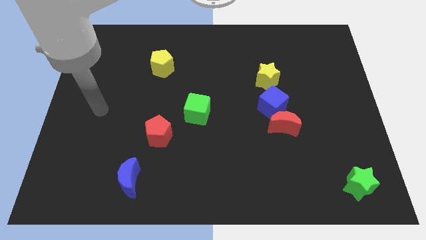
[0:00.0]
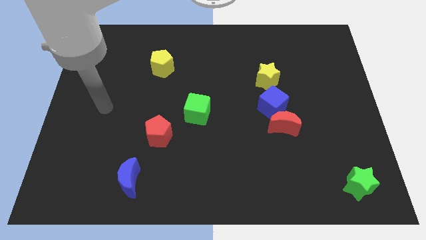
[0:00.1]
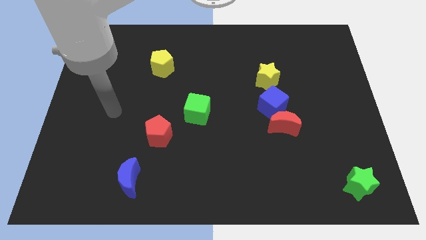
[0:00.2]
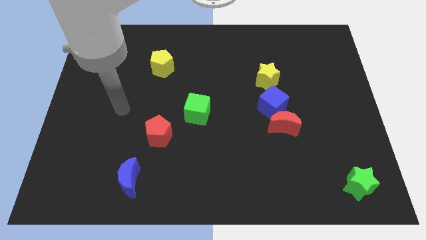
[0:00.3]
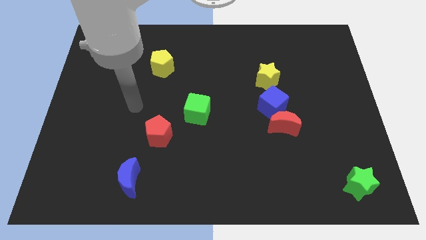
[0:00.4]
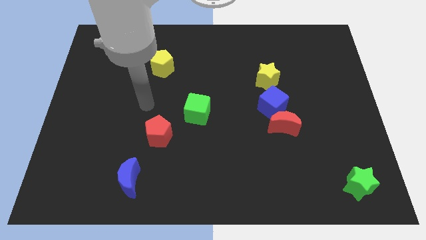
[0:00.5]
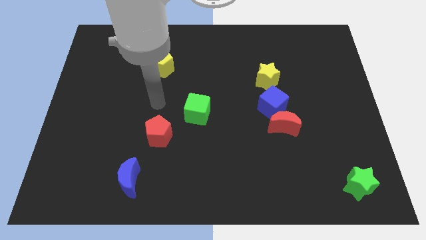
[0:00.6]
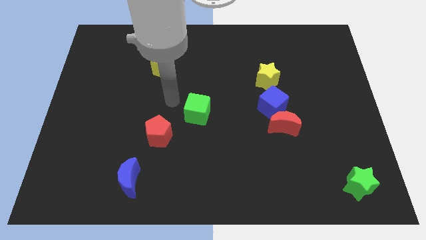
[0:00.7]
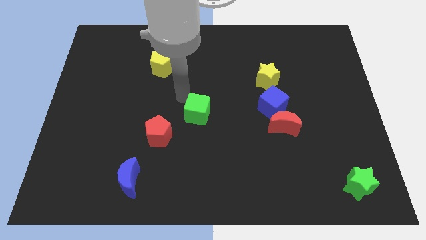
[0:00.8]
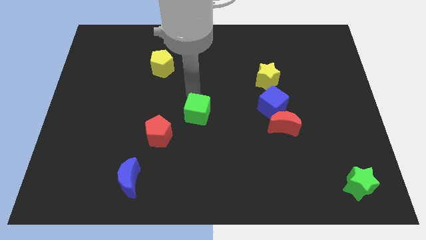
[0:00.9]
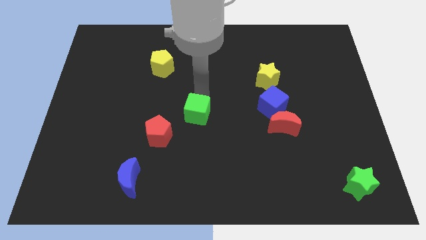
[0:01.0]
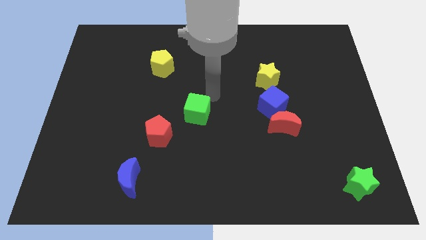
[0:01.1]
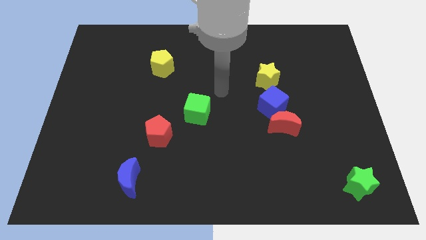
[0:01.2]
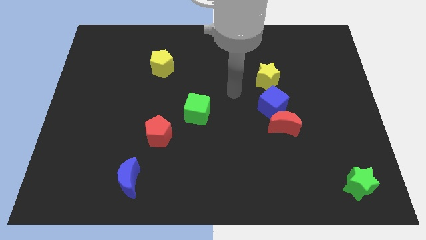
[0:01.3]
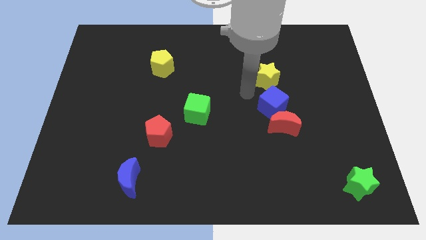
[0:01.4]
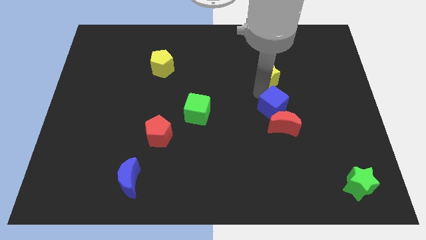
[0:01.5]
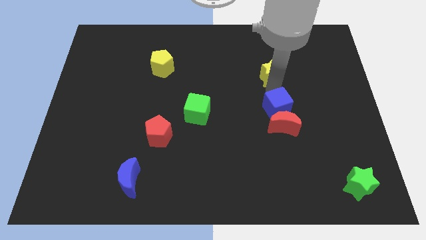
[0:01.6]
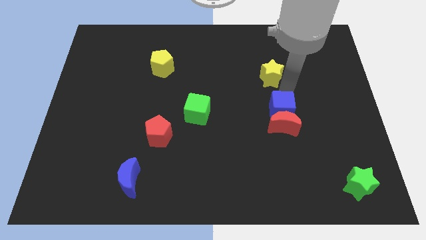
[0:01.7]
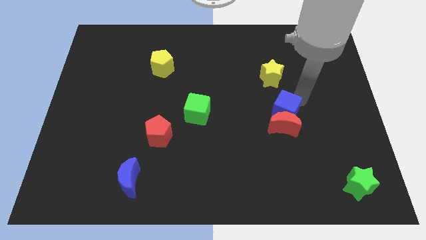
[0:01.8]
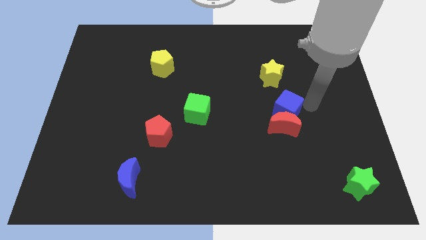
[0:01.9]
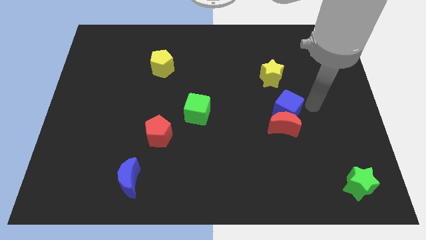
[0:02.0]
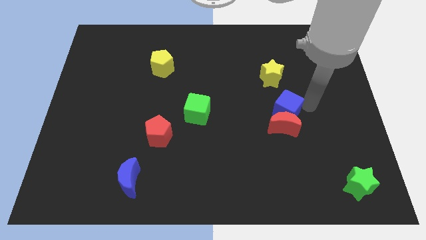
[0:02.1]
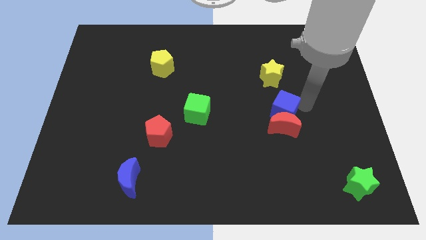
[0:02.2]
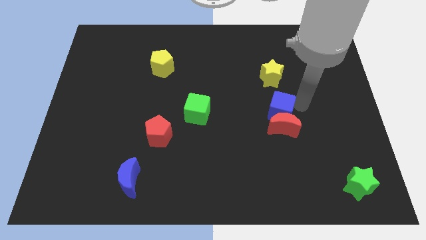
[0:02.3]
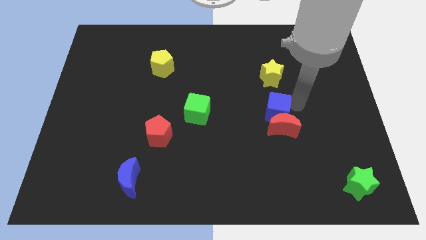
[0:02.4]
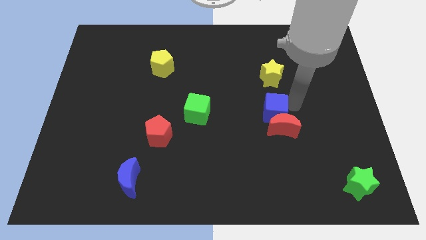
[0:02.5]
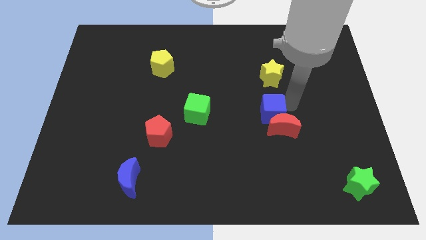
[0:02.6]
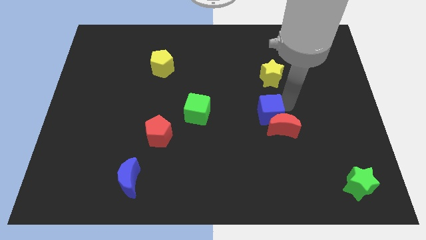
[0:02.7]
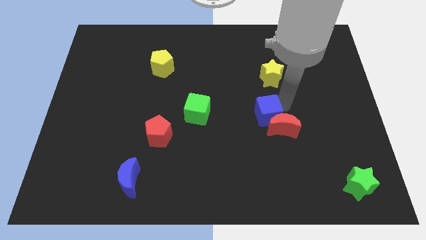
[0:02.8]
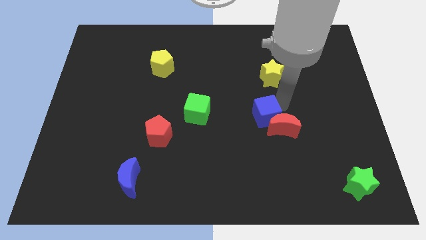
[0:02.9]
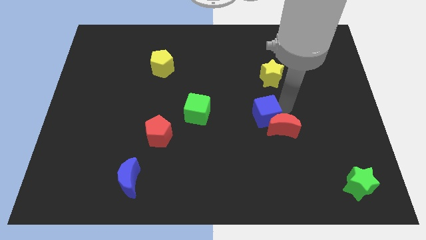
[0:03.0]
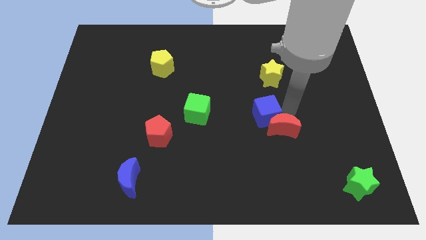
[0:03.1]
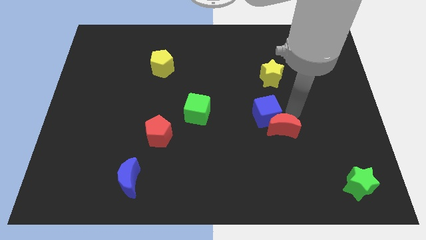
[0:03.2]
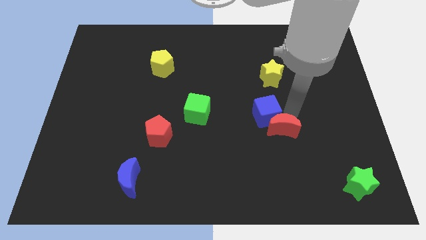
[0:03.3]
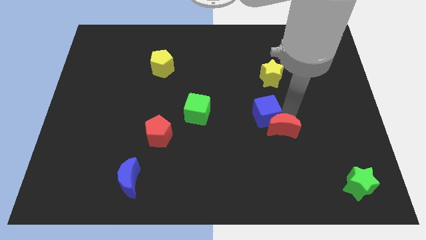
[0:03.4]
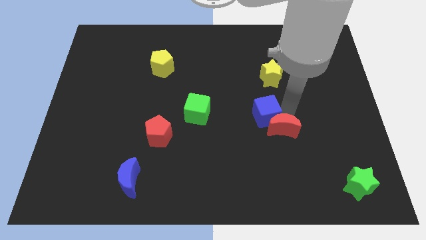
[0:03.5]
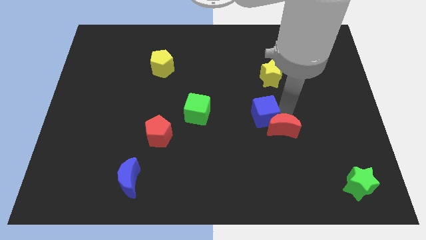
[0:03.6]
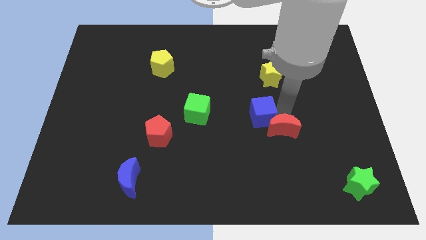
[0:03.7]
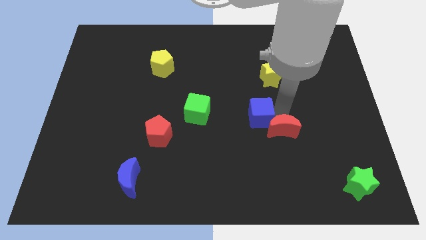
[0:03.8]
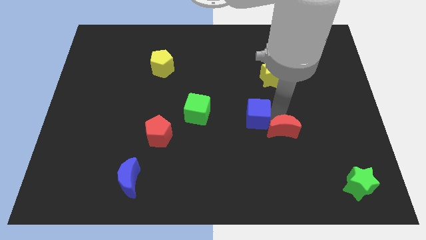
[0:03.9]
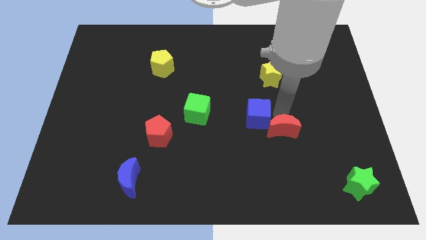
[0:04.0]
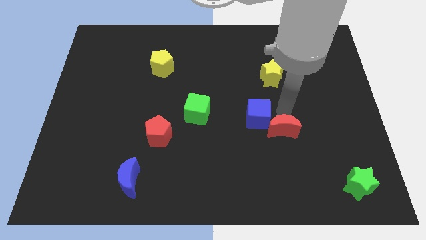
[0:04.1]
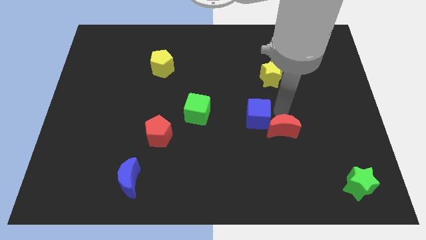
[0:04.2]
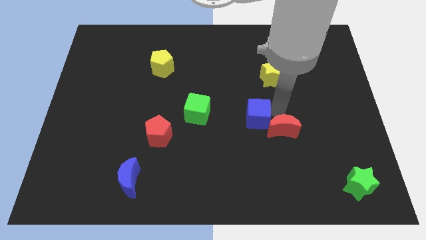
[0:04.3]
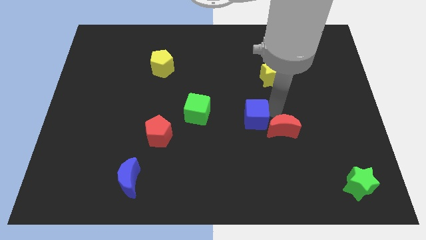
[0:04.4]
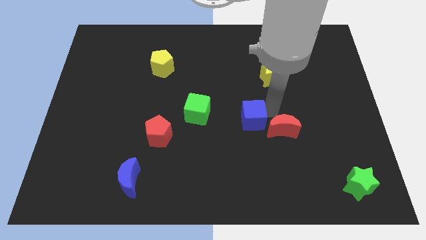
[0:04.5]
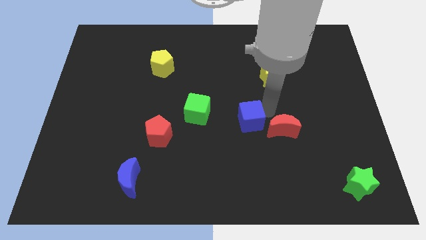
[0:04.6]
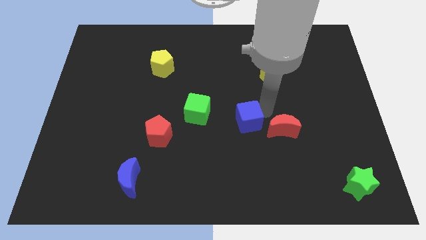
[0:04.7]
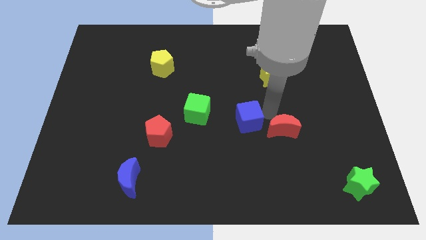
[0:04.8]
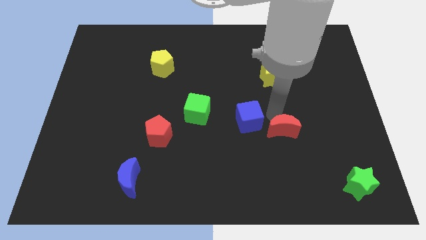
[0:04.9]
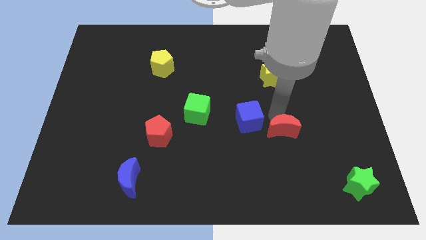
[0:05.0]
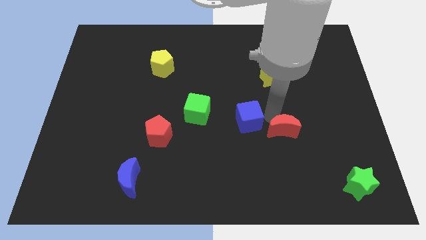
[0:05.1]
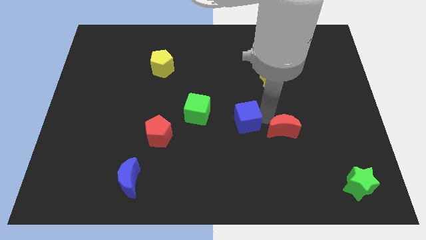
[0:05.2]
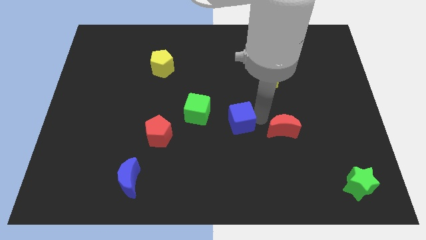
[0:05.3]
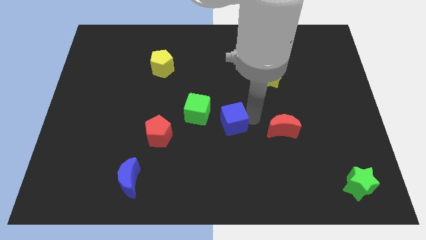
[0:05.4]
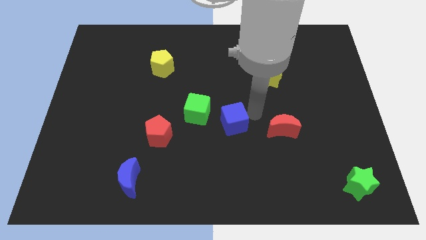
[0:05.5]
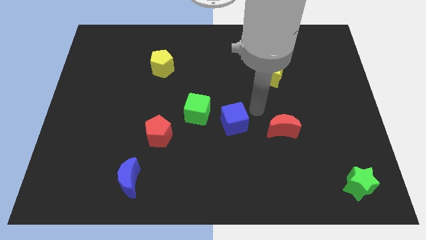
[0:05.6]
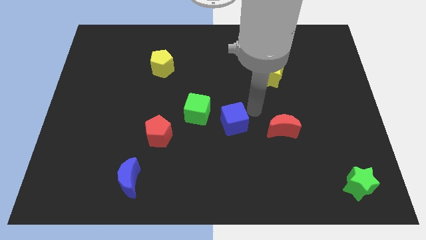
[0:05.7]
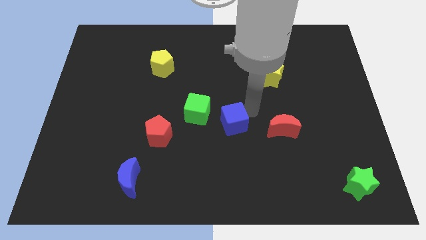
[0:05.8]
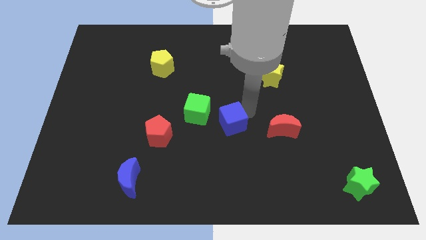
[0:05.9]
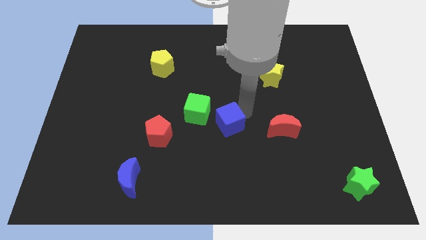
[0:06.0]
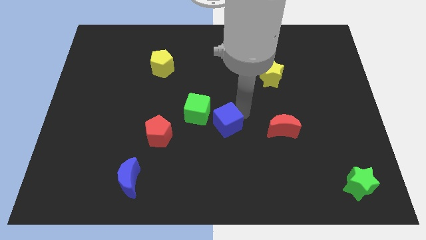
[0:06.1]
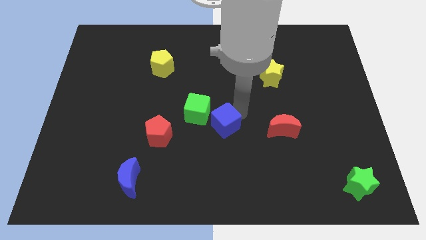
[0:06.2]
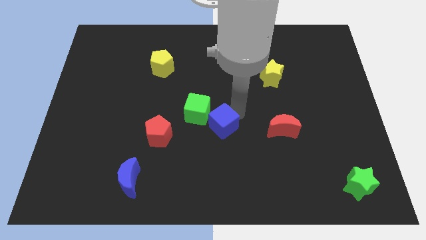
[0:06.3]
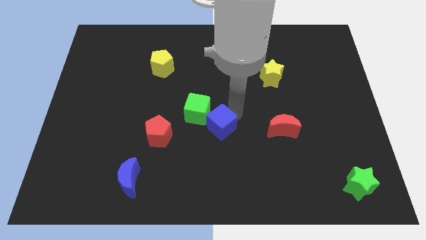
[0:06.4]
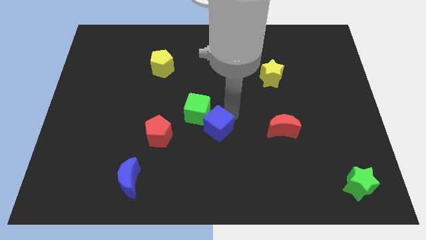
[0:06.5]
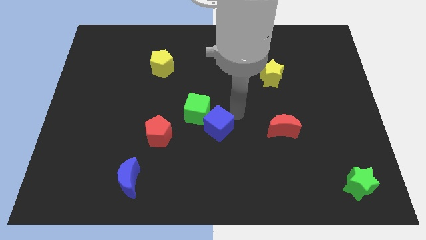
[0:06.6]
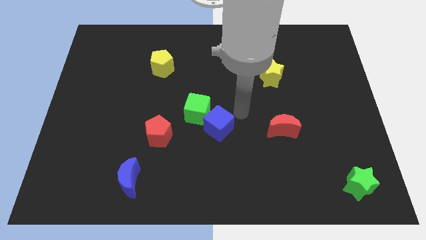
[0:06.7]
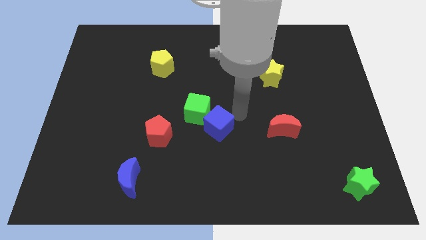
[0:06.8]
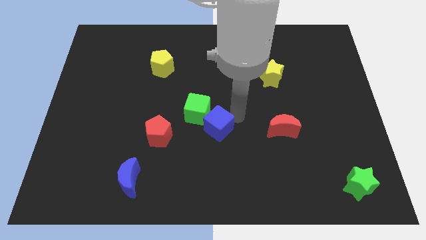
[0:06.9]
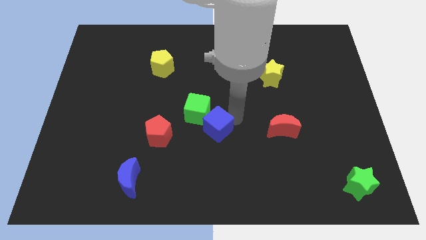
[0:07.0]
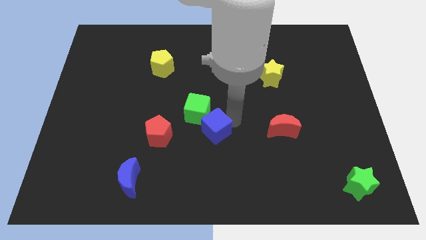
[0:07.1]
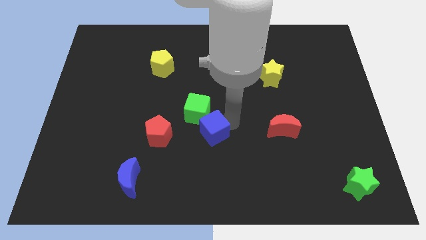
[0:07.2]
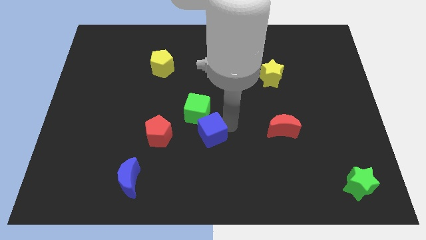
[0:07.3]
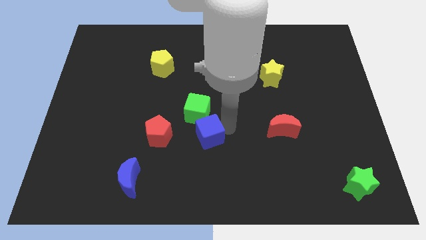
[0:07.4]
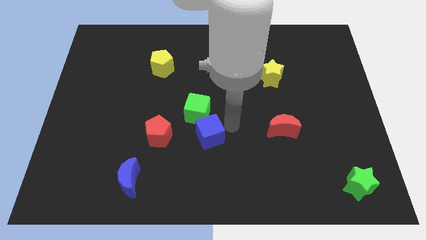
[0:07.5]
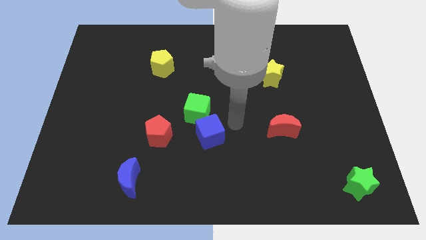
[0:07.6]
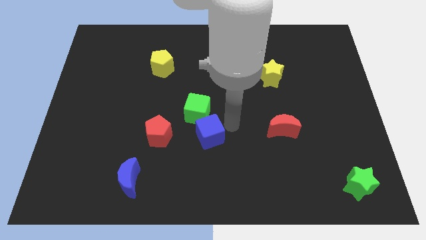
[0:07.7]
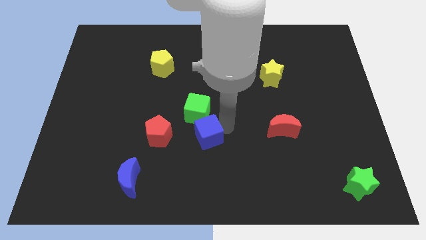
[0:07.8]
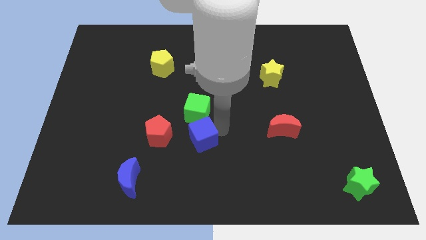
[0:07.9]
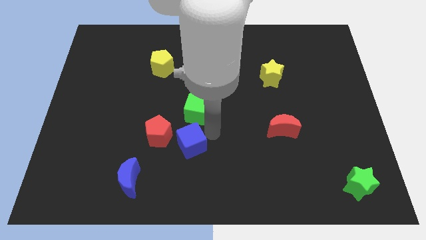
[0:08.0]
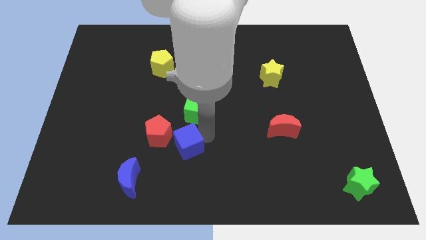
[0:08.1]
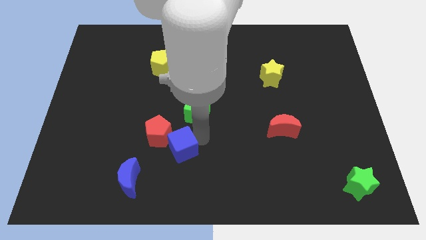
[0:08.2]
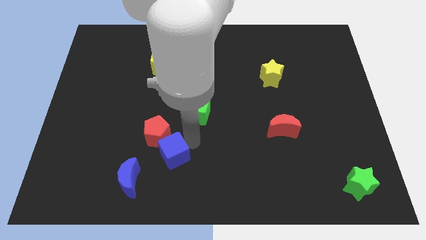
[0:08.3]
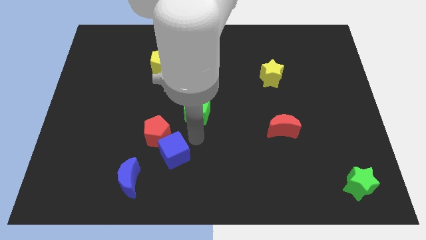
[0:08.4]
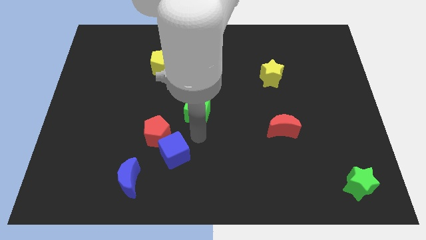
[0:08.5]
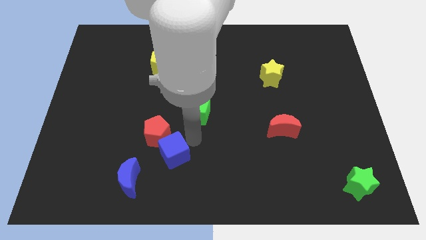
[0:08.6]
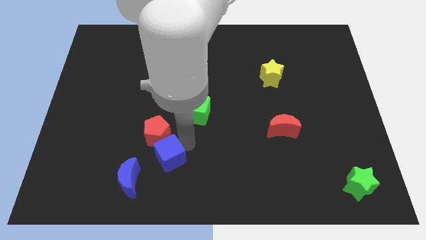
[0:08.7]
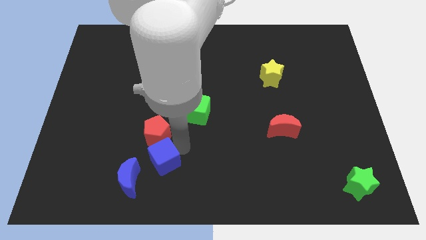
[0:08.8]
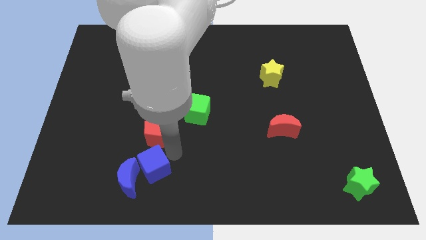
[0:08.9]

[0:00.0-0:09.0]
push the blue cube to the blue moon
